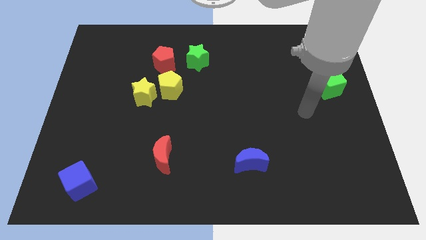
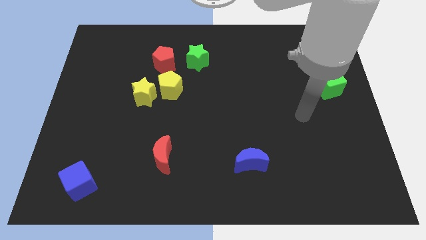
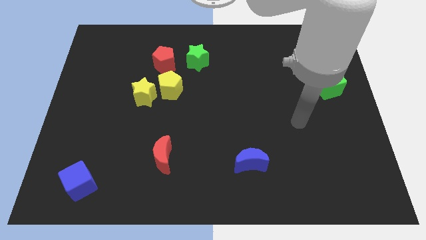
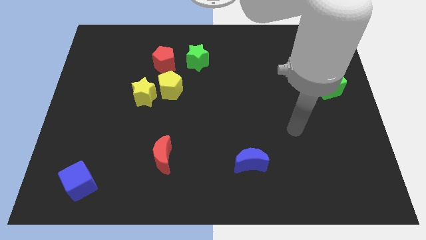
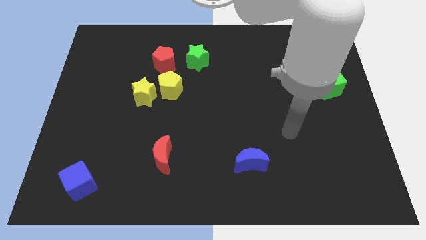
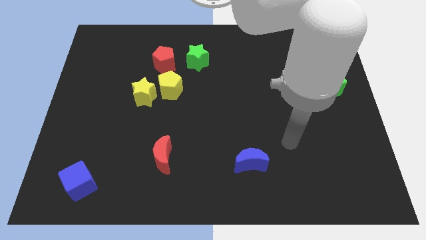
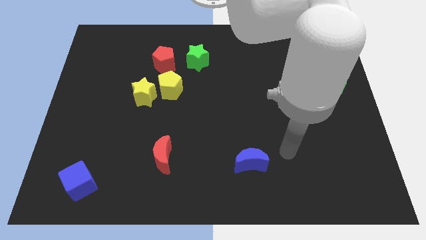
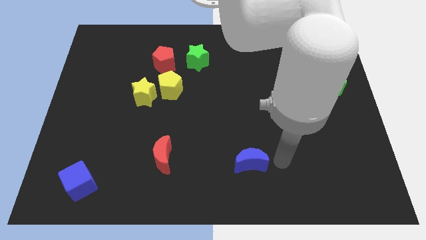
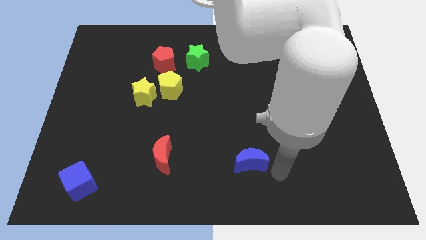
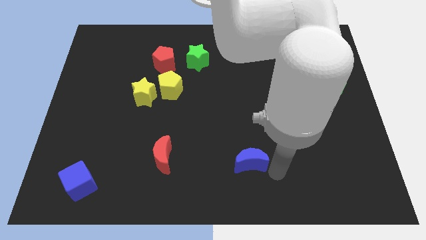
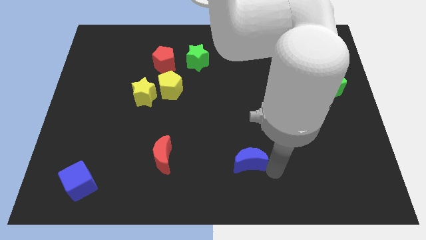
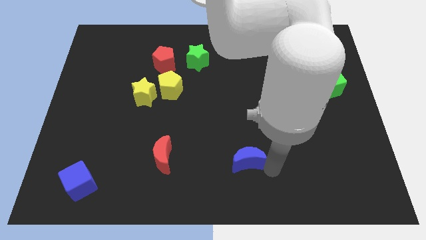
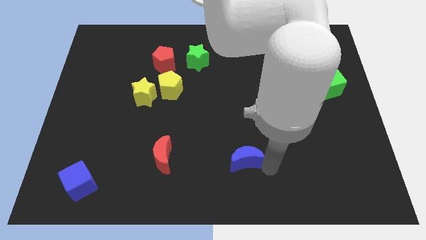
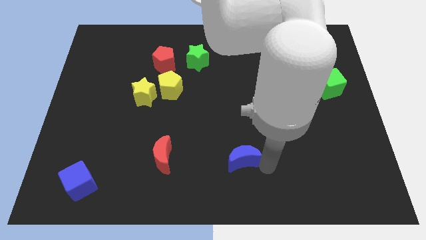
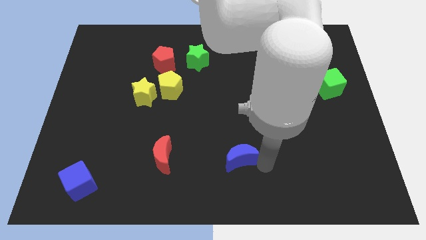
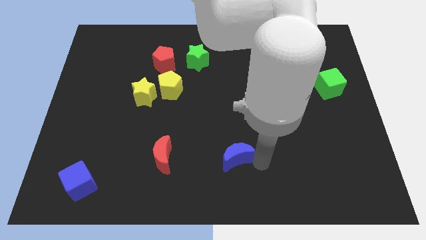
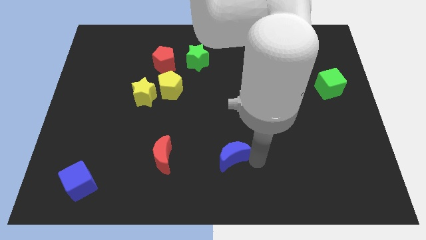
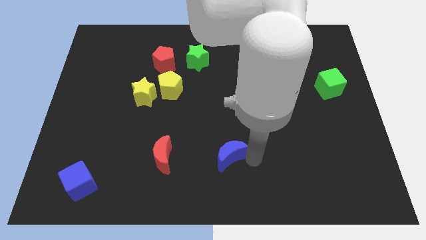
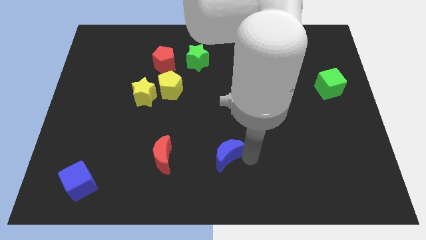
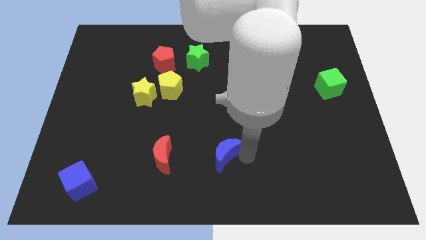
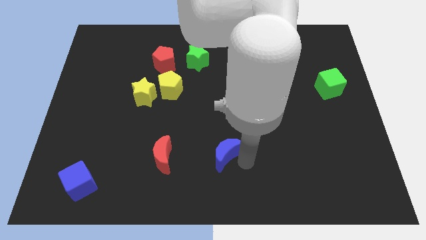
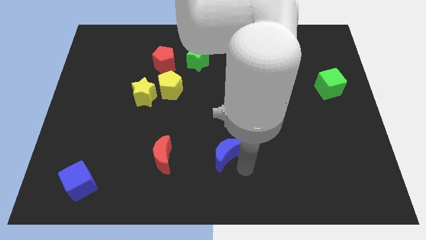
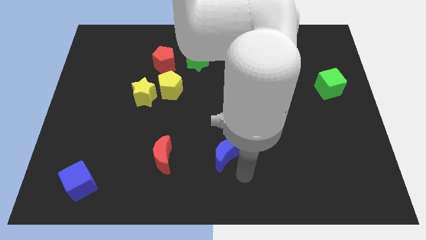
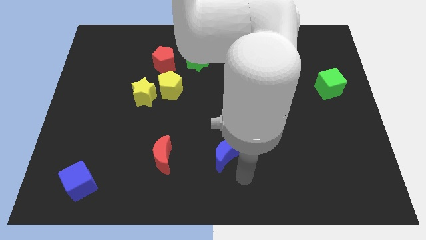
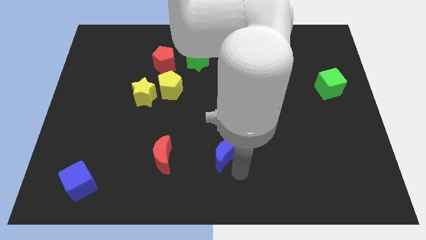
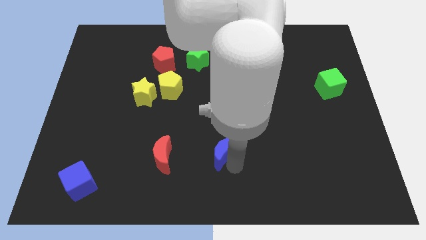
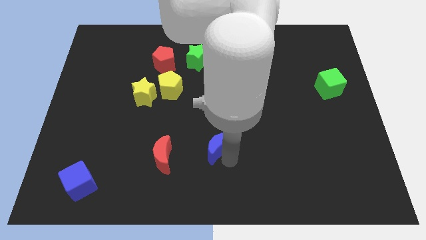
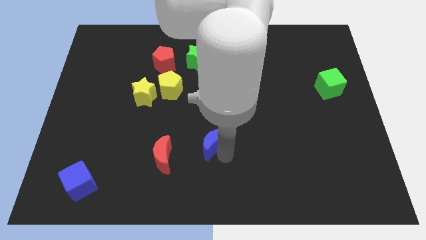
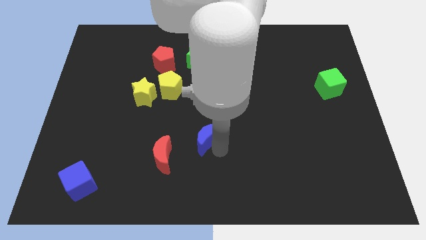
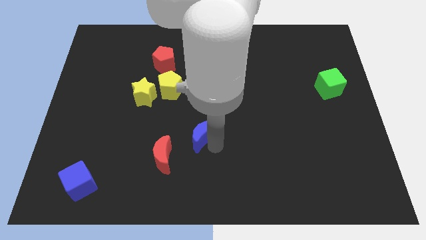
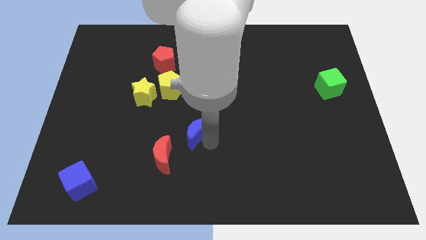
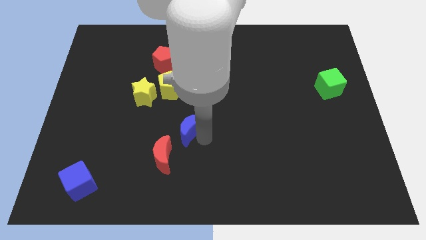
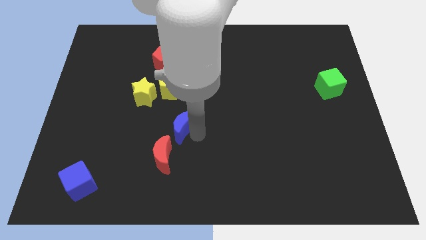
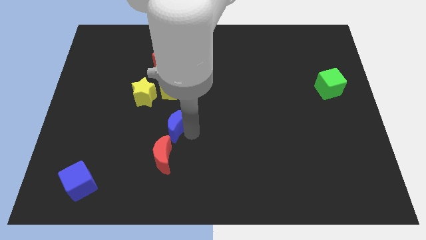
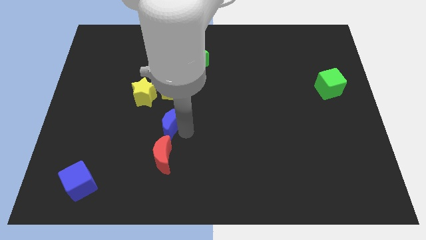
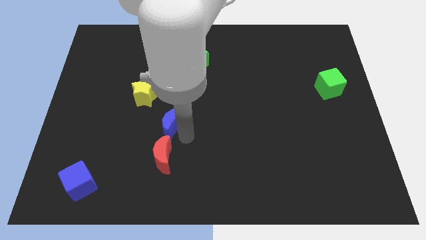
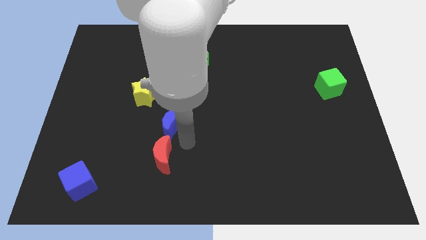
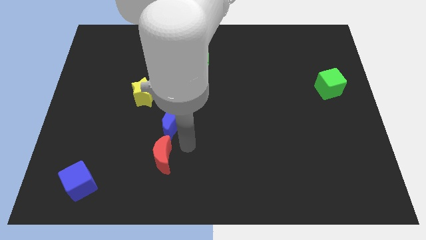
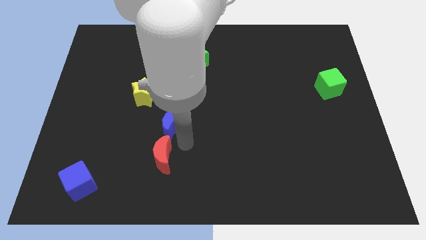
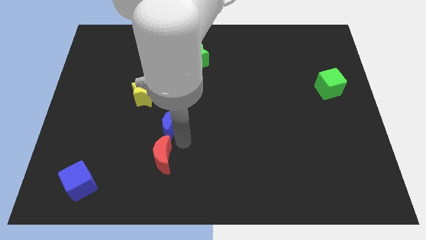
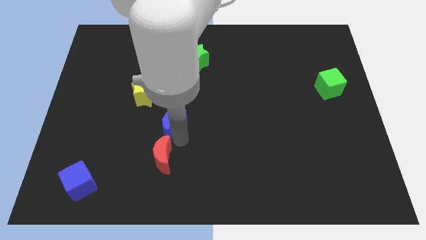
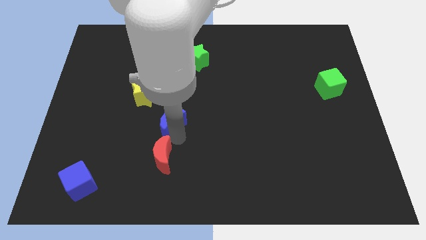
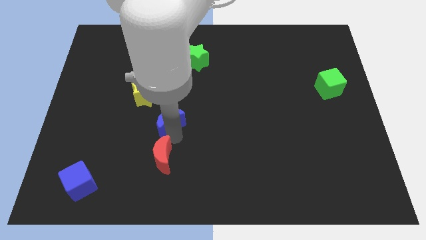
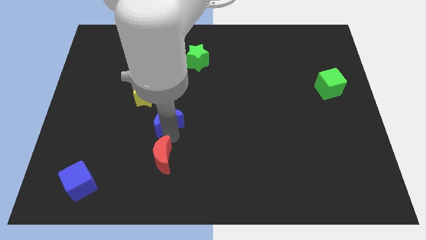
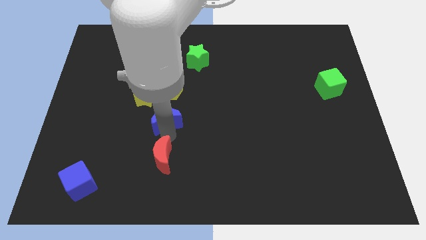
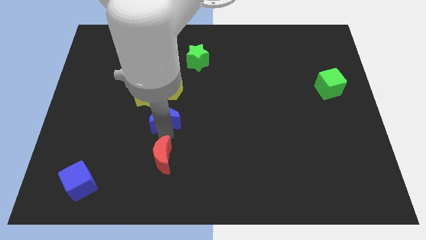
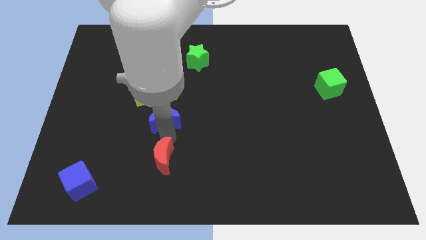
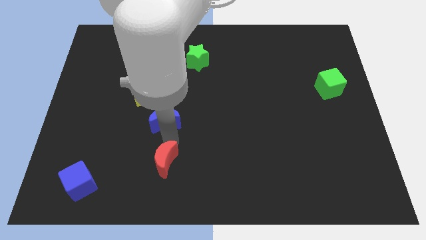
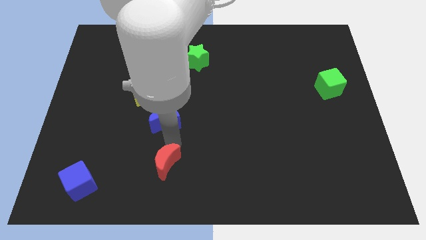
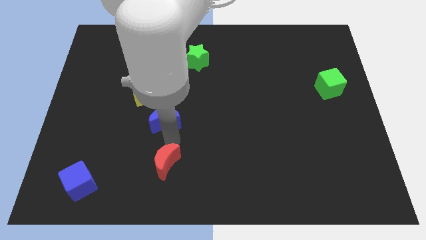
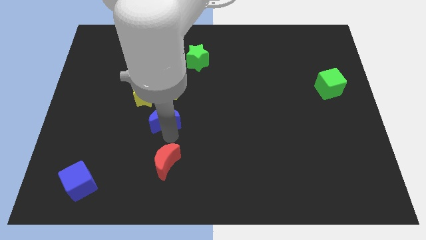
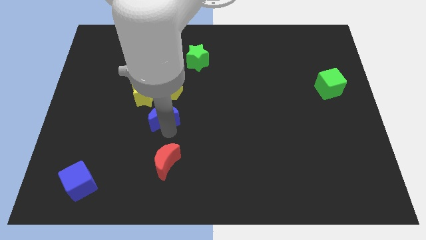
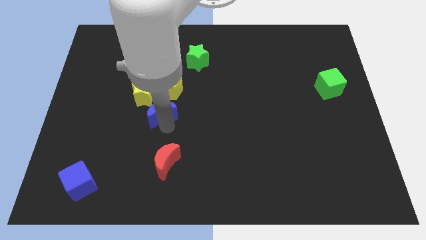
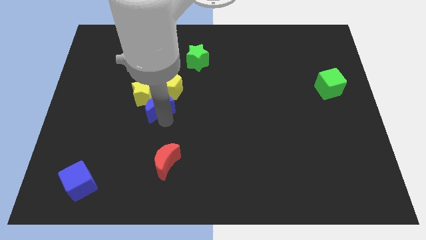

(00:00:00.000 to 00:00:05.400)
put the blue moon towards the yellow star

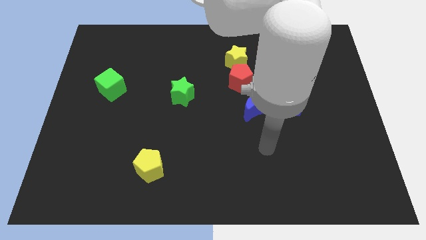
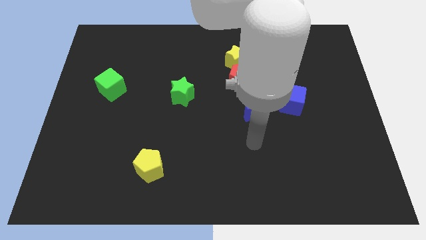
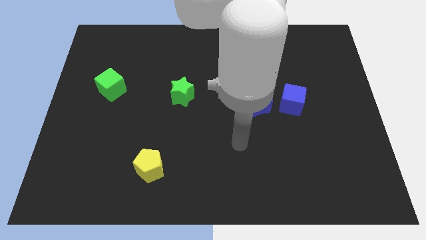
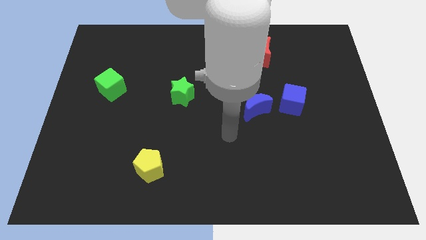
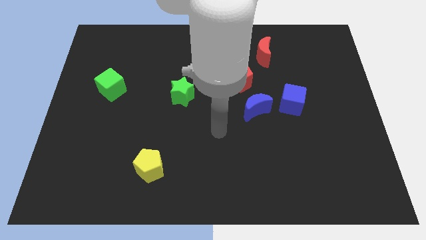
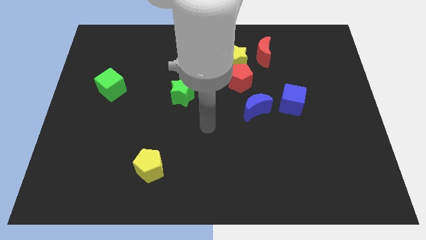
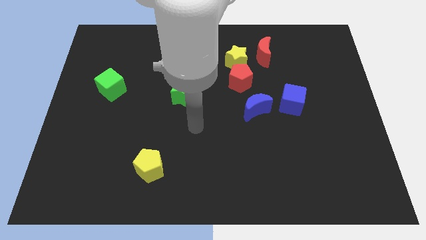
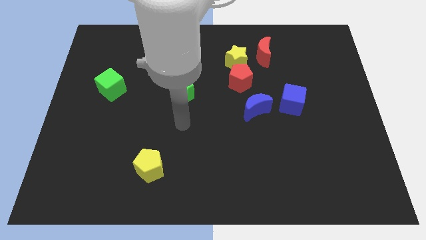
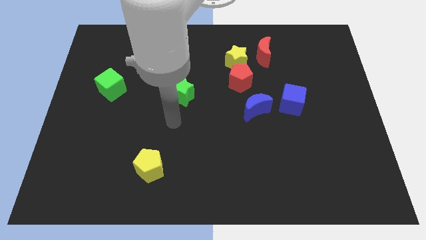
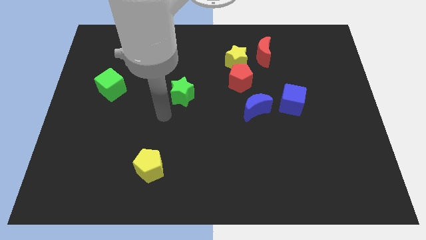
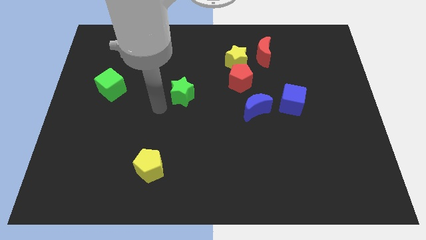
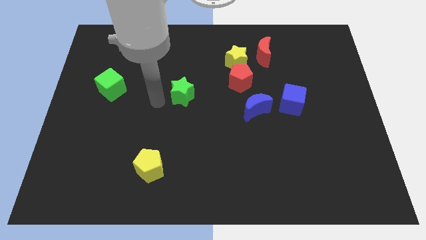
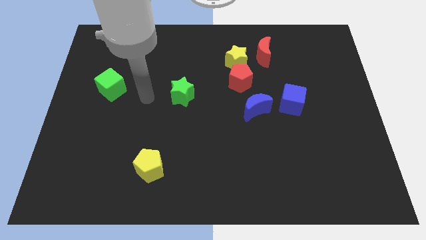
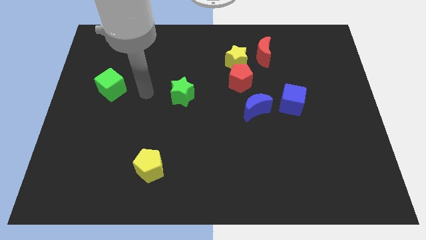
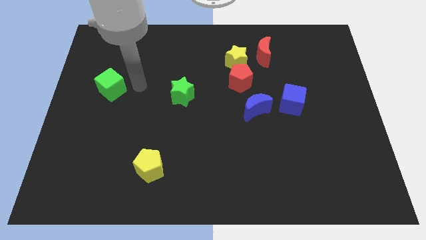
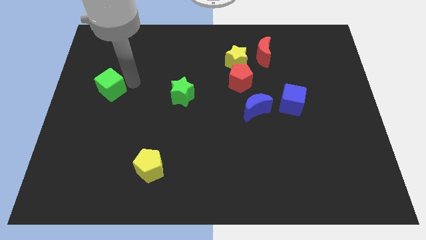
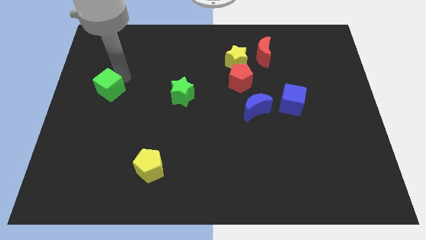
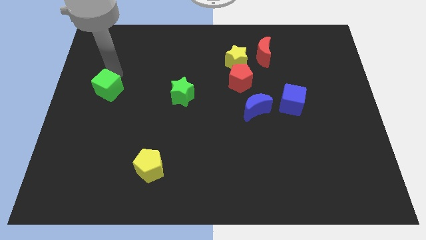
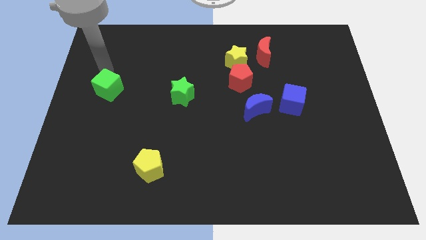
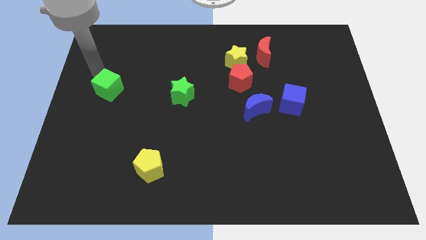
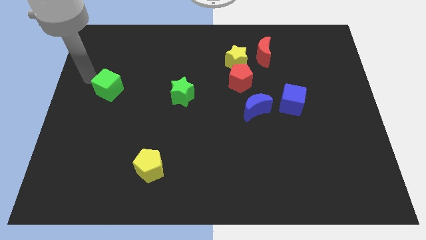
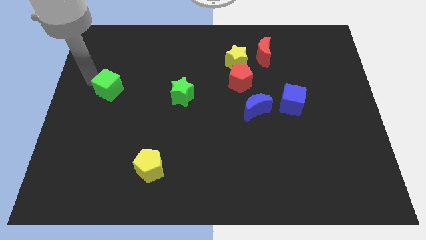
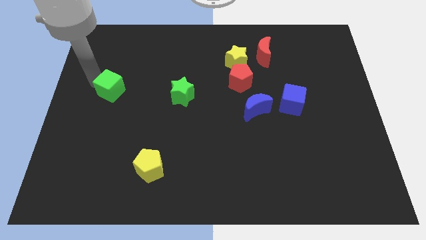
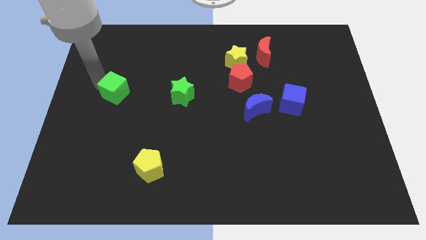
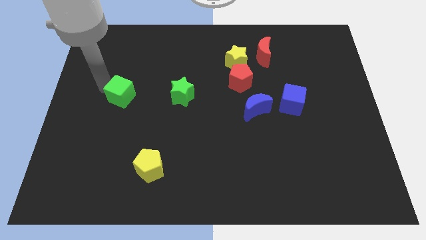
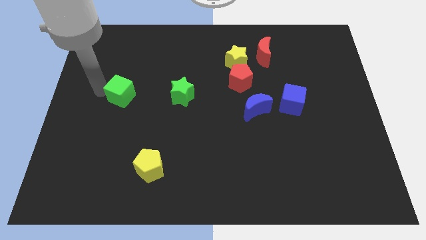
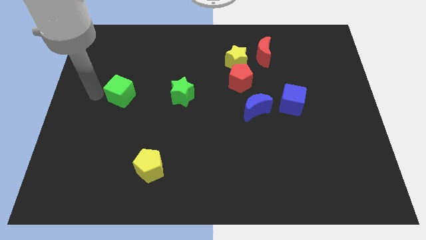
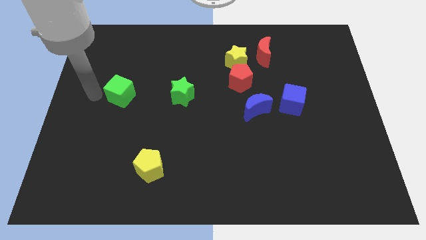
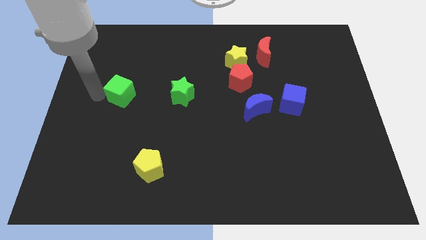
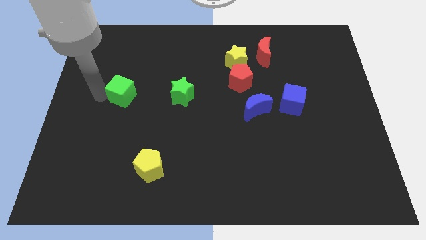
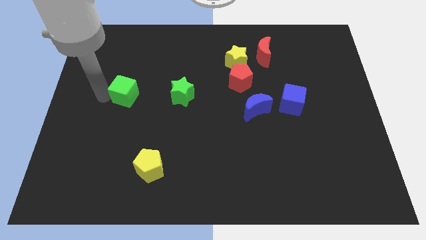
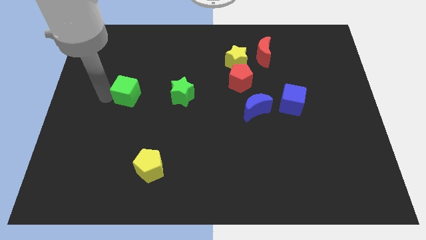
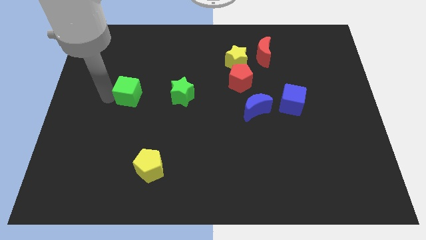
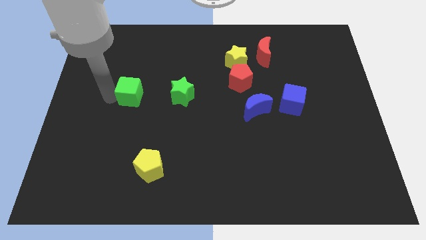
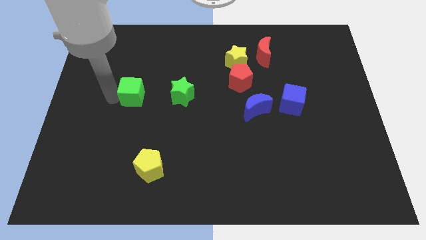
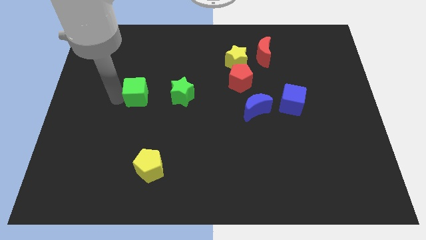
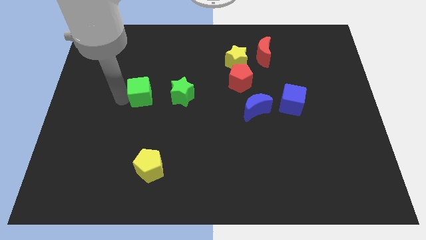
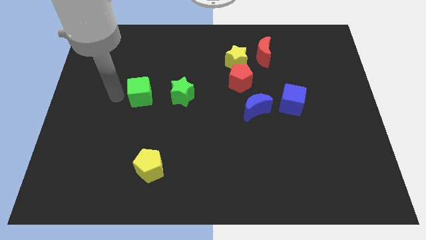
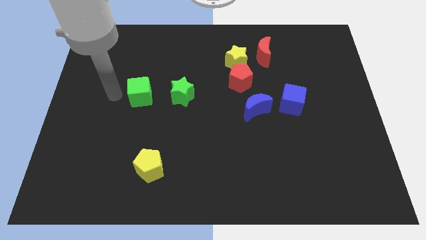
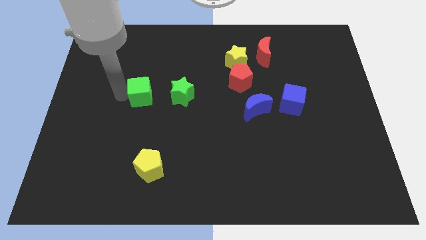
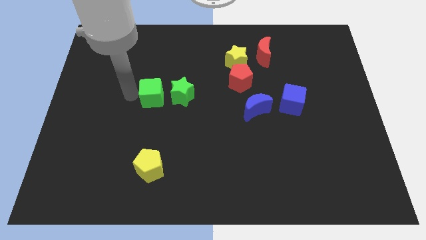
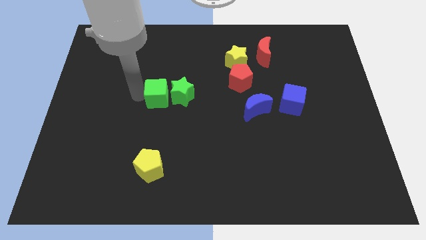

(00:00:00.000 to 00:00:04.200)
slide the green cube to the green star
